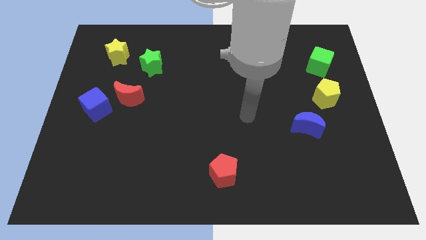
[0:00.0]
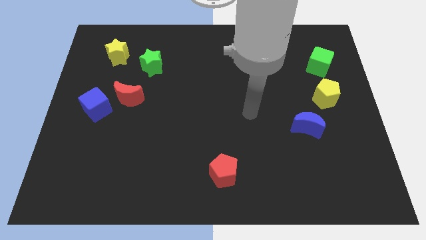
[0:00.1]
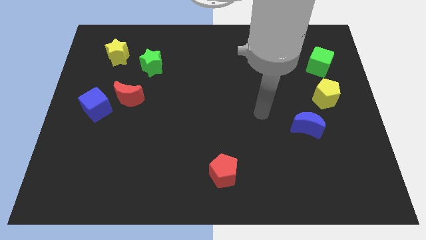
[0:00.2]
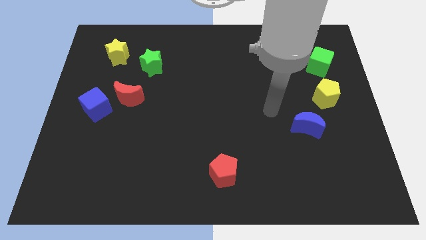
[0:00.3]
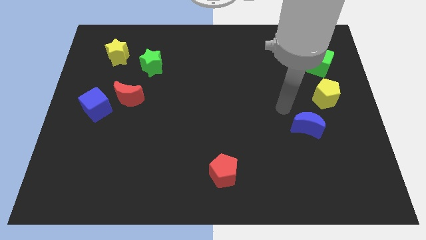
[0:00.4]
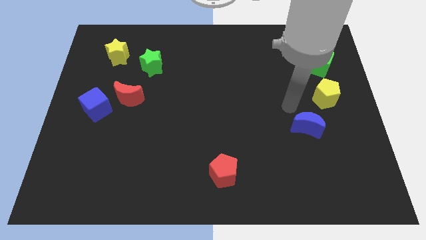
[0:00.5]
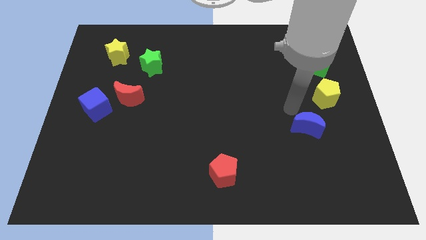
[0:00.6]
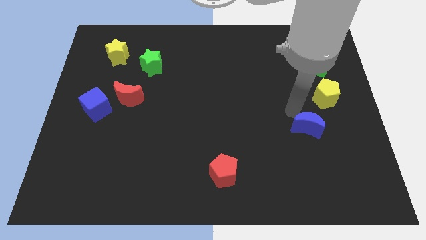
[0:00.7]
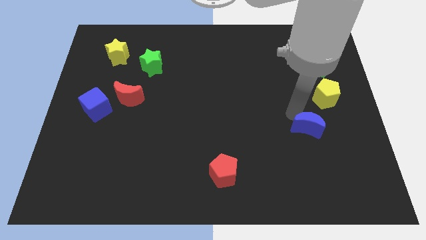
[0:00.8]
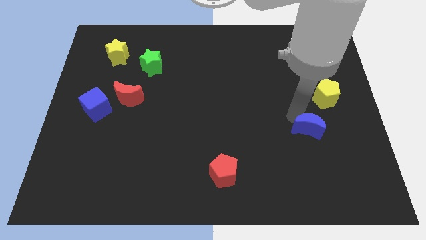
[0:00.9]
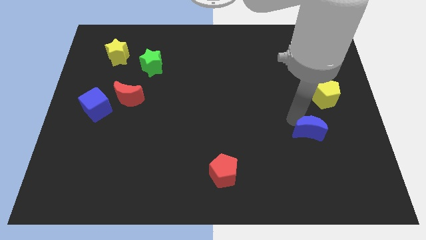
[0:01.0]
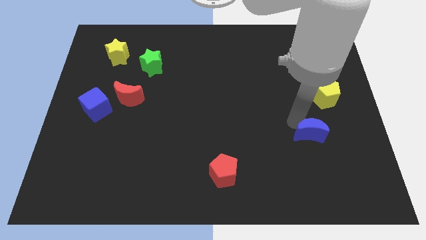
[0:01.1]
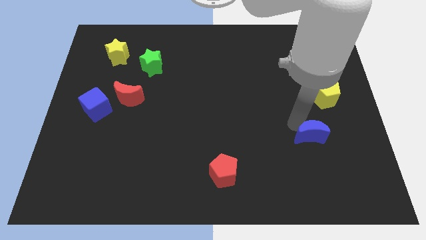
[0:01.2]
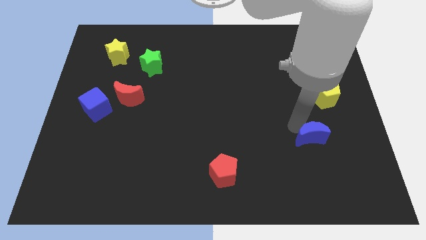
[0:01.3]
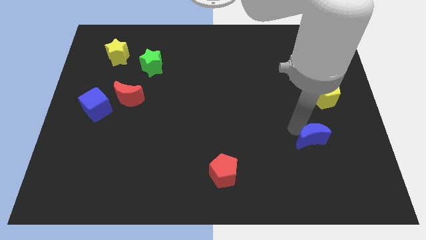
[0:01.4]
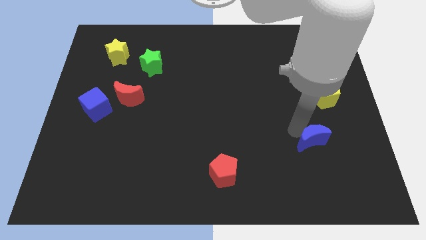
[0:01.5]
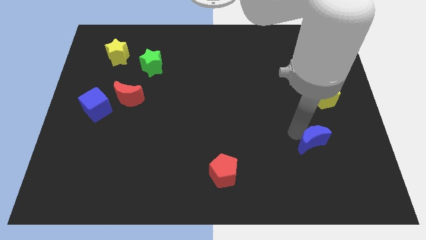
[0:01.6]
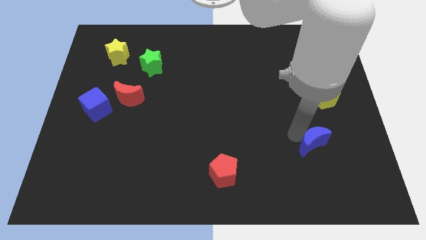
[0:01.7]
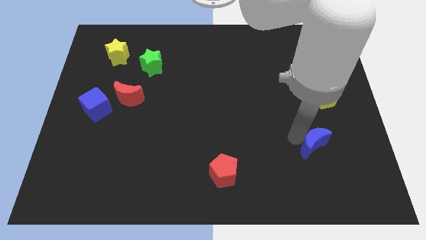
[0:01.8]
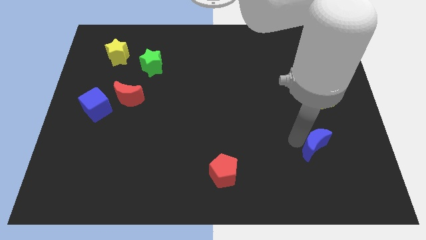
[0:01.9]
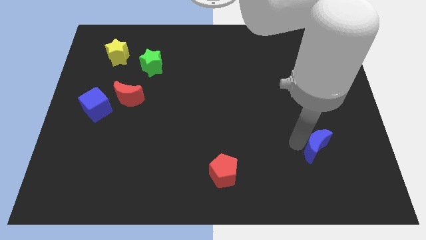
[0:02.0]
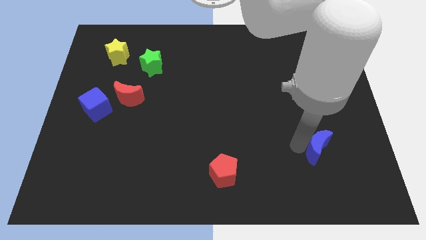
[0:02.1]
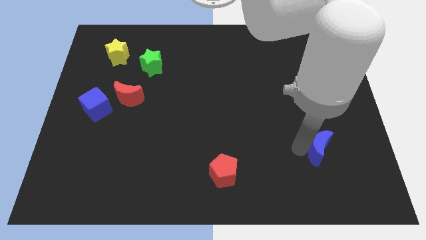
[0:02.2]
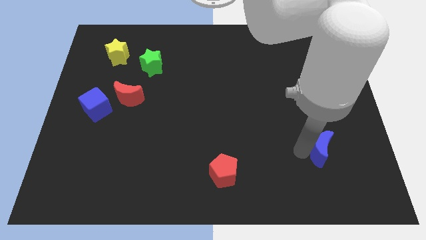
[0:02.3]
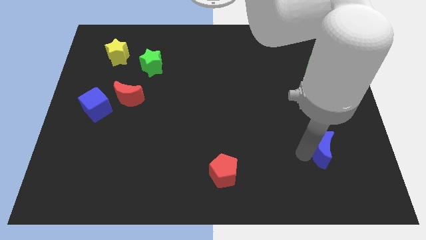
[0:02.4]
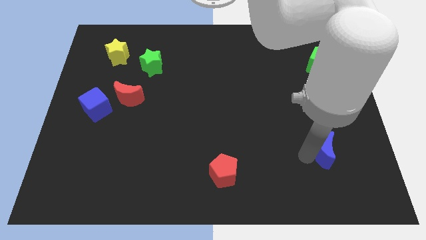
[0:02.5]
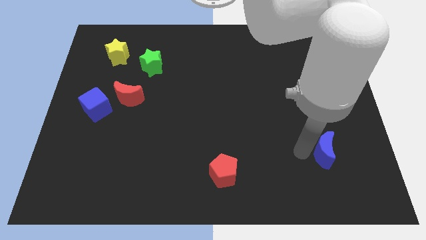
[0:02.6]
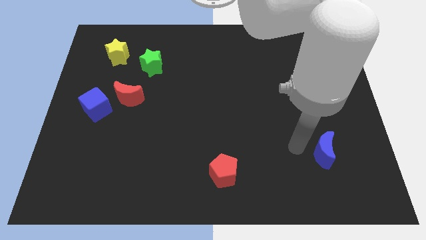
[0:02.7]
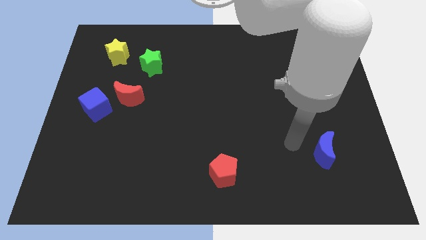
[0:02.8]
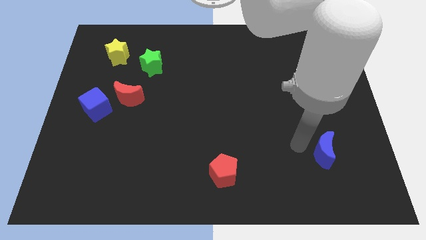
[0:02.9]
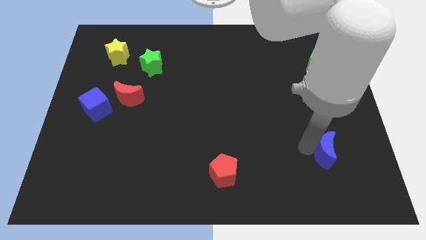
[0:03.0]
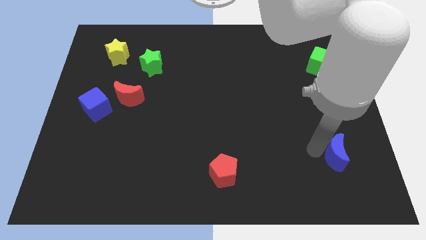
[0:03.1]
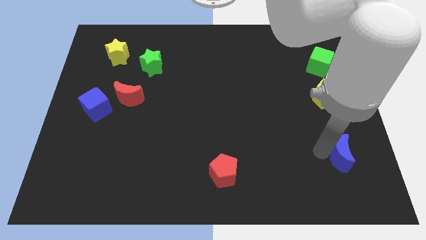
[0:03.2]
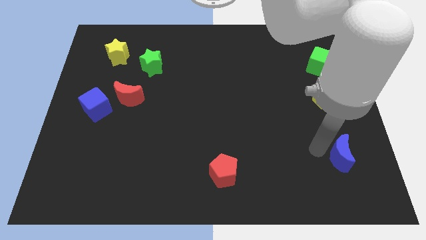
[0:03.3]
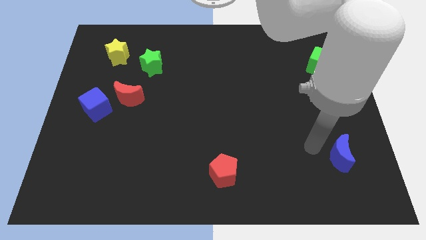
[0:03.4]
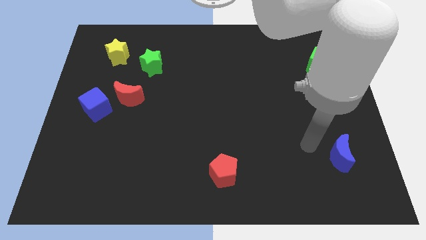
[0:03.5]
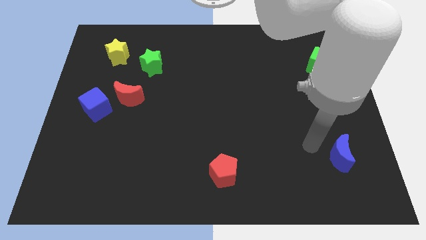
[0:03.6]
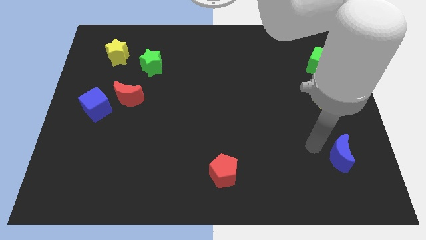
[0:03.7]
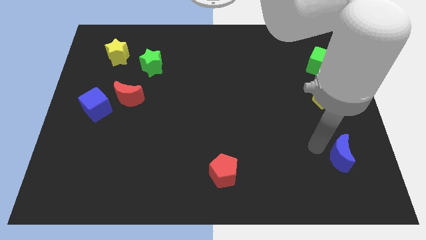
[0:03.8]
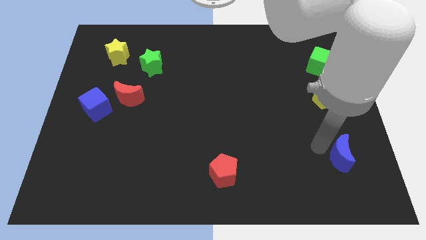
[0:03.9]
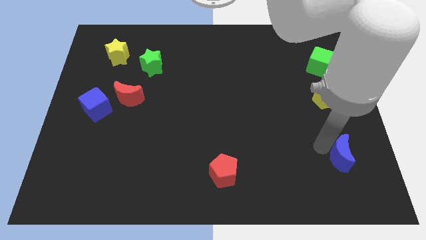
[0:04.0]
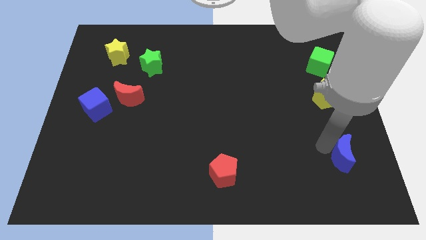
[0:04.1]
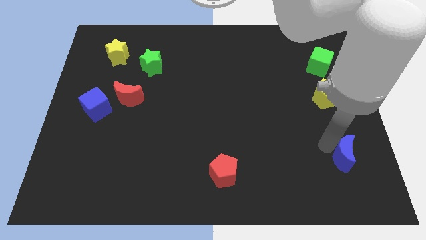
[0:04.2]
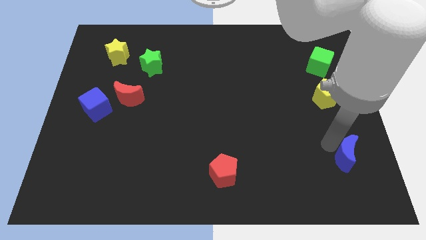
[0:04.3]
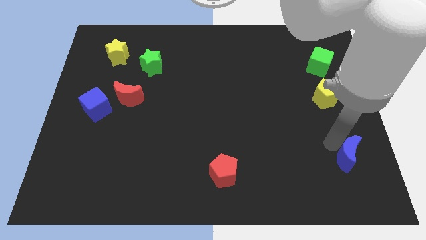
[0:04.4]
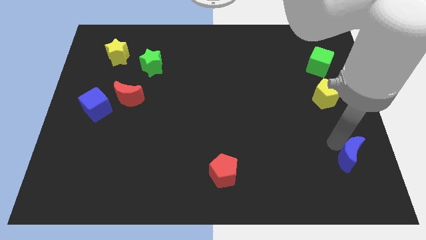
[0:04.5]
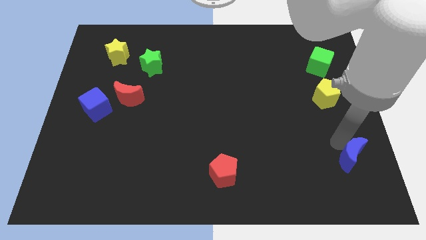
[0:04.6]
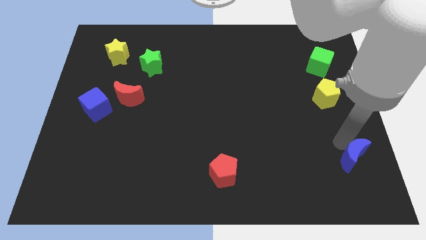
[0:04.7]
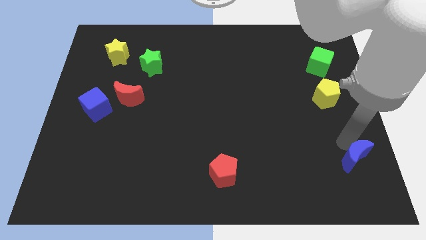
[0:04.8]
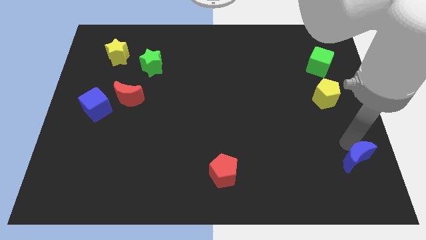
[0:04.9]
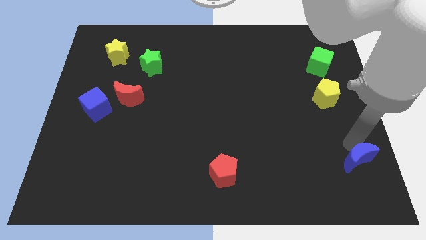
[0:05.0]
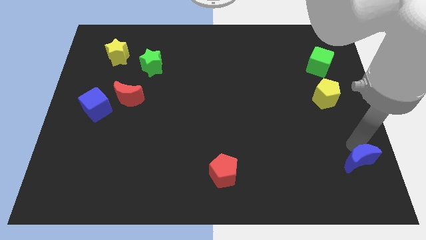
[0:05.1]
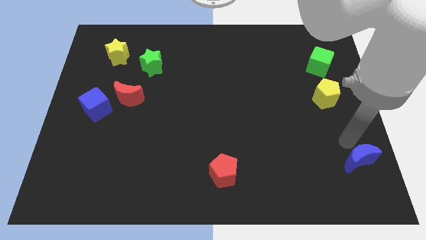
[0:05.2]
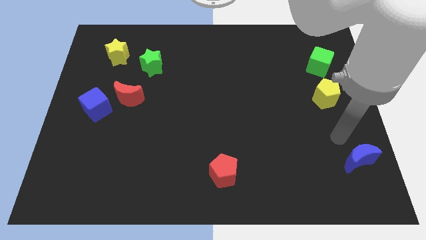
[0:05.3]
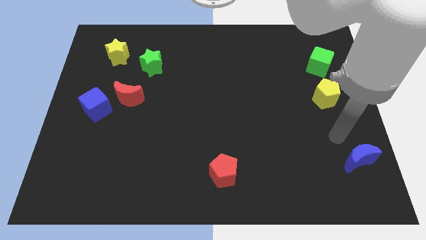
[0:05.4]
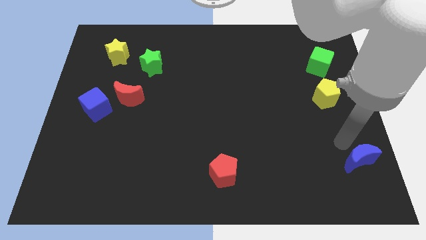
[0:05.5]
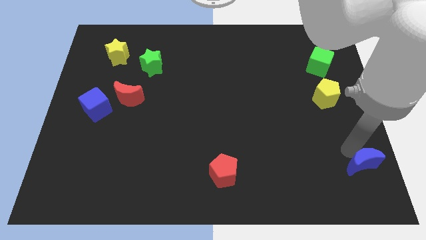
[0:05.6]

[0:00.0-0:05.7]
put the blue moon to the lower right corner

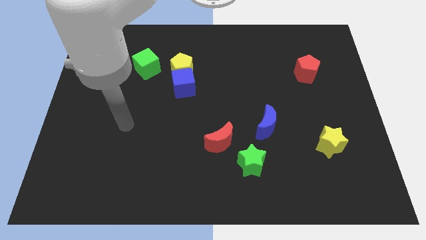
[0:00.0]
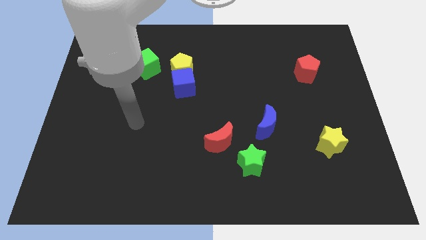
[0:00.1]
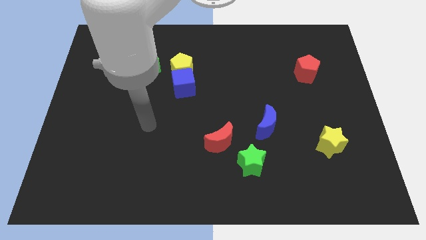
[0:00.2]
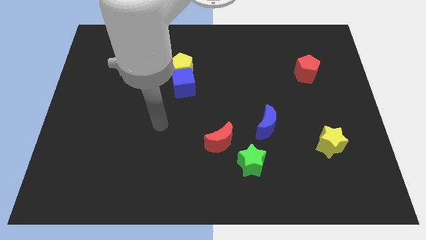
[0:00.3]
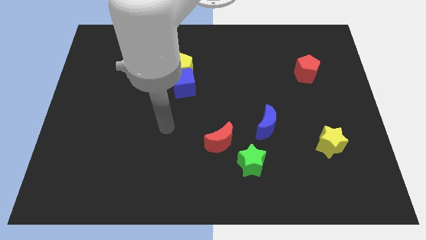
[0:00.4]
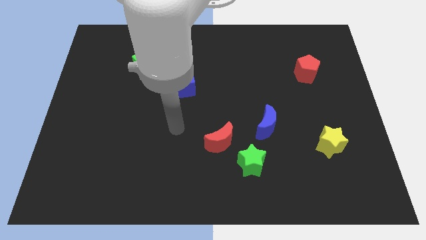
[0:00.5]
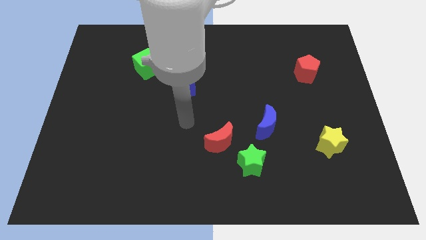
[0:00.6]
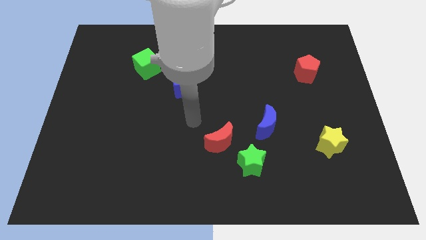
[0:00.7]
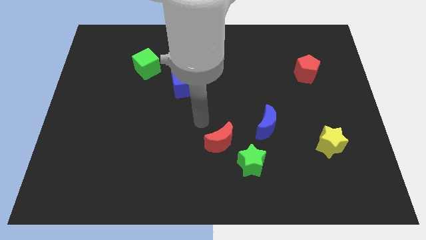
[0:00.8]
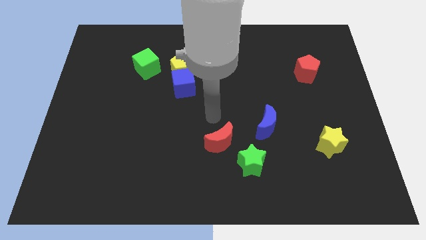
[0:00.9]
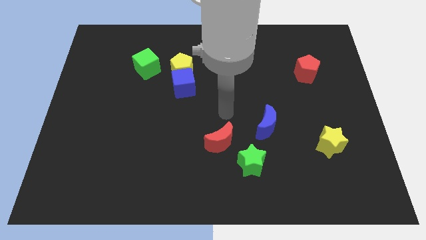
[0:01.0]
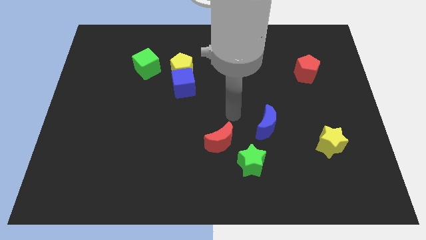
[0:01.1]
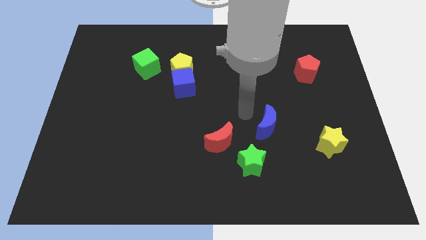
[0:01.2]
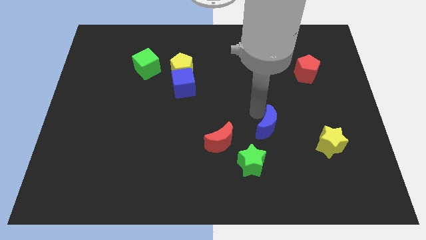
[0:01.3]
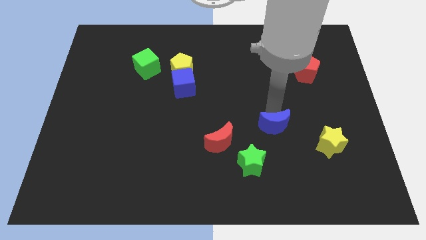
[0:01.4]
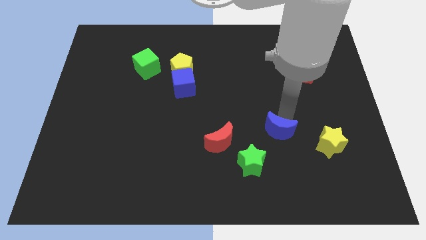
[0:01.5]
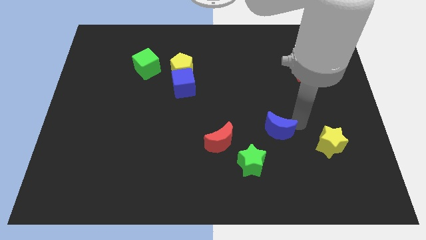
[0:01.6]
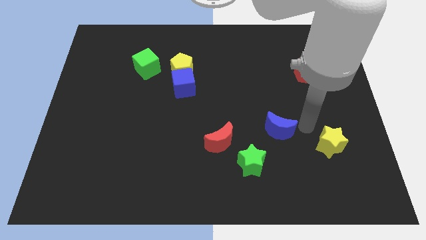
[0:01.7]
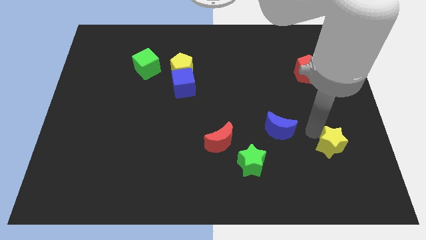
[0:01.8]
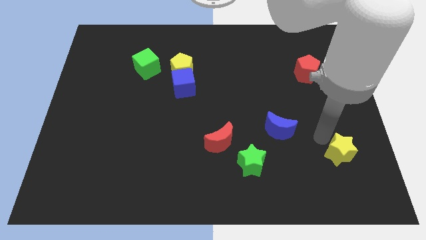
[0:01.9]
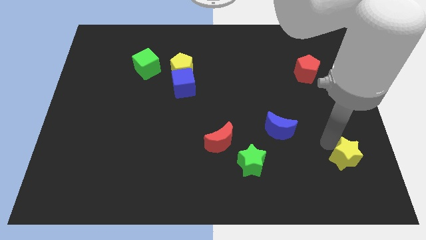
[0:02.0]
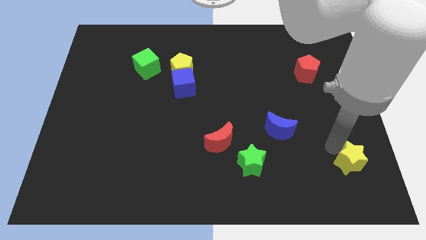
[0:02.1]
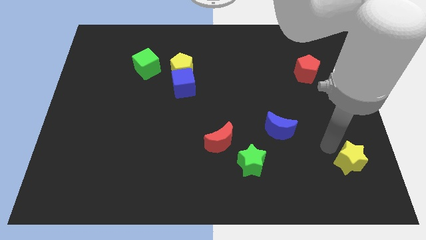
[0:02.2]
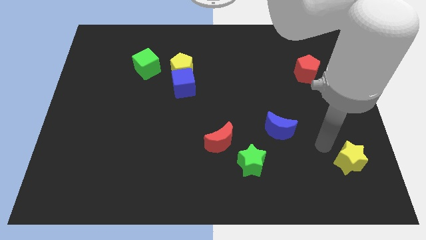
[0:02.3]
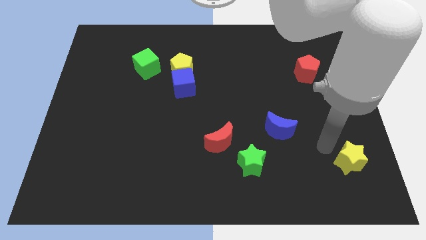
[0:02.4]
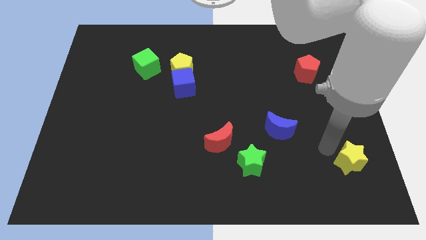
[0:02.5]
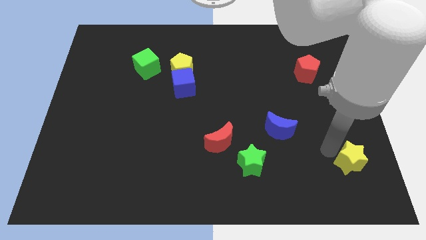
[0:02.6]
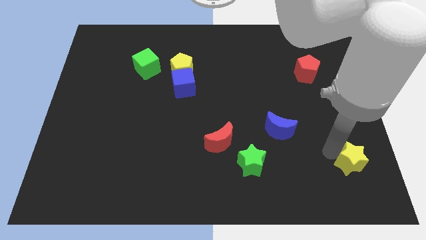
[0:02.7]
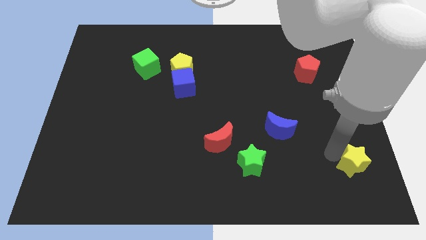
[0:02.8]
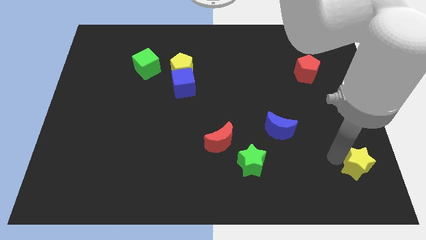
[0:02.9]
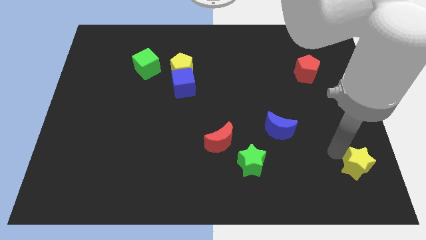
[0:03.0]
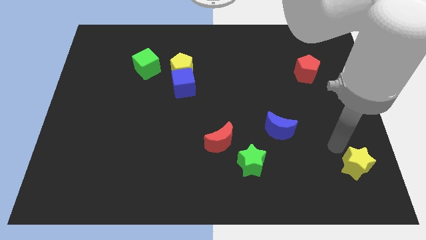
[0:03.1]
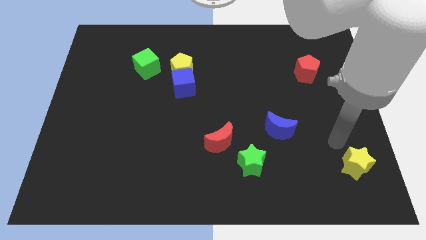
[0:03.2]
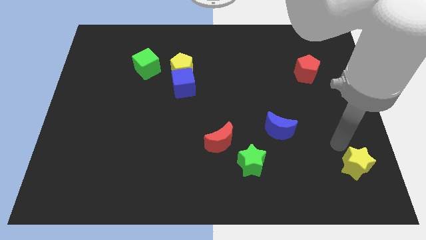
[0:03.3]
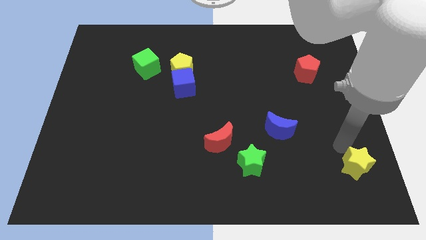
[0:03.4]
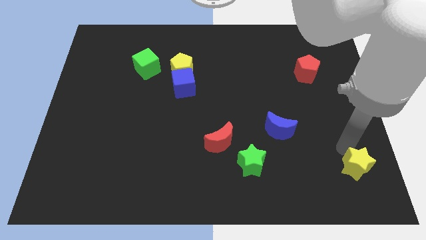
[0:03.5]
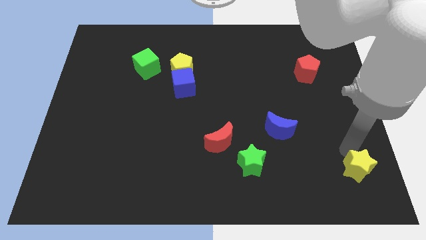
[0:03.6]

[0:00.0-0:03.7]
put the yellow star to the bottom right corner
